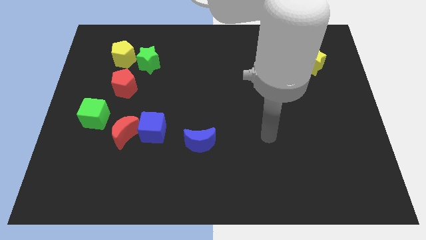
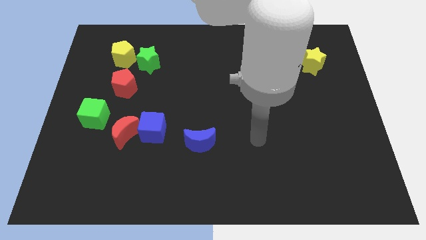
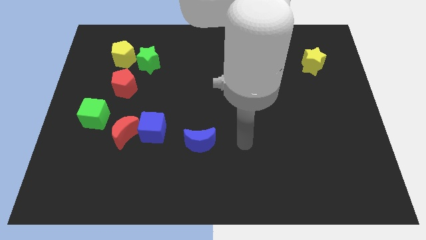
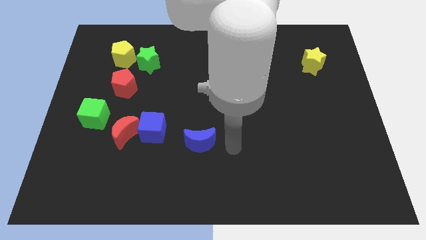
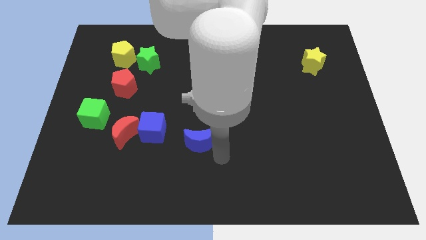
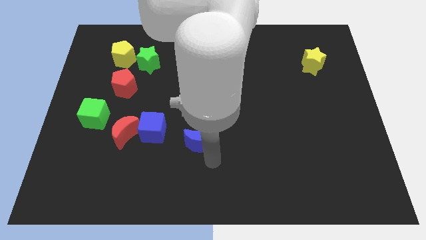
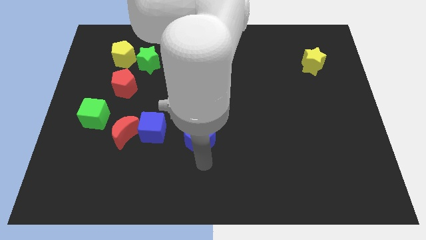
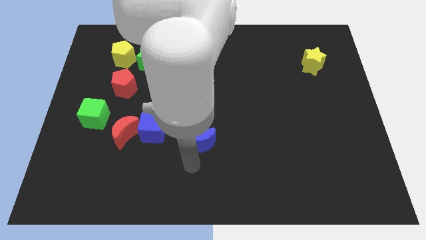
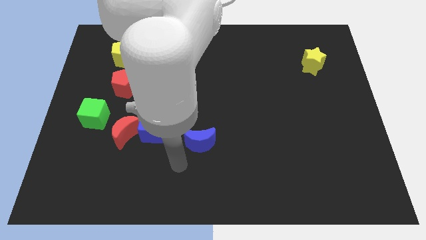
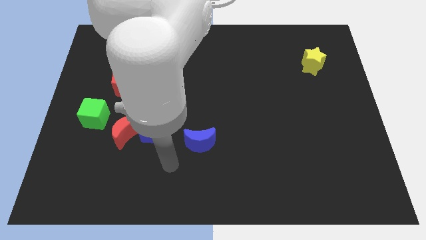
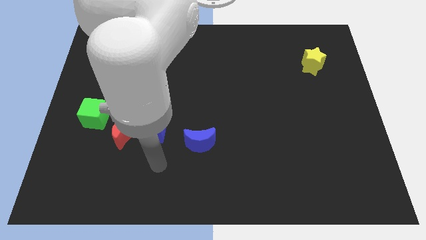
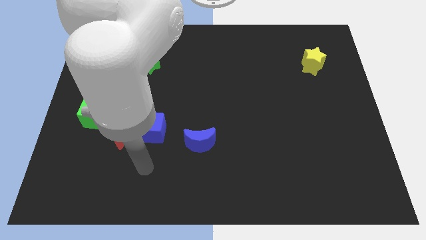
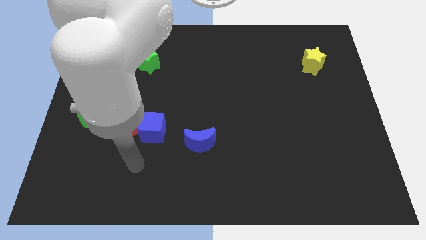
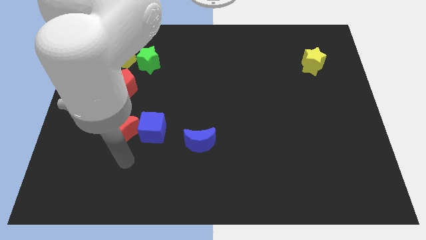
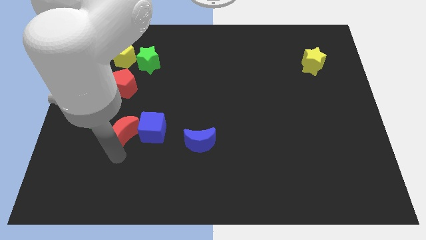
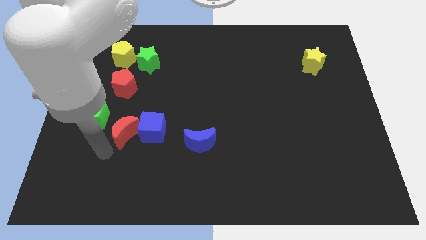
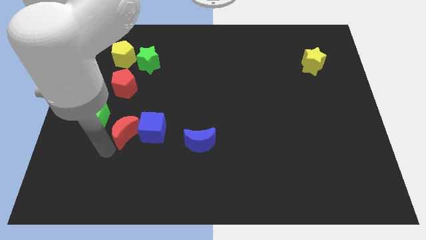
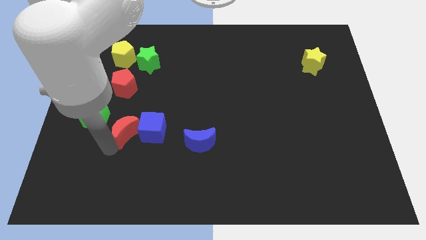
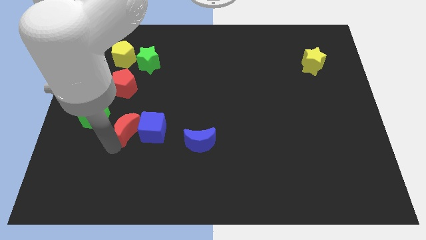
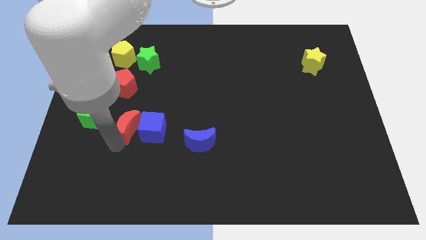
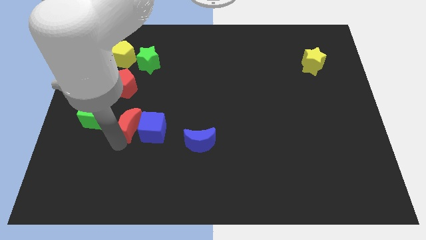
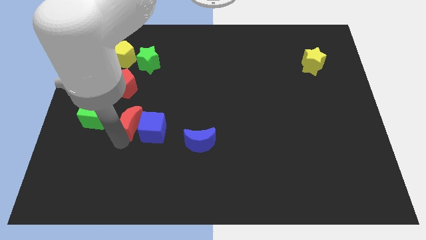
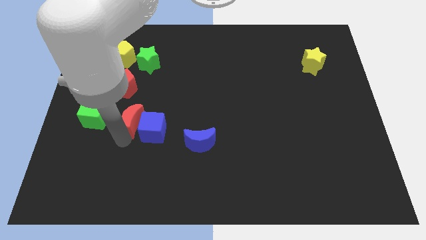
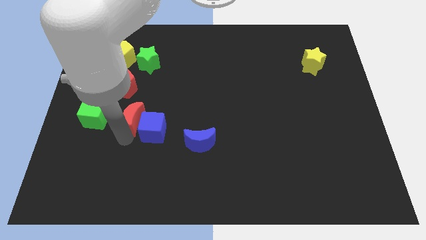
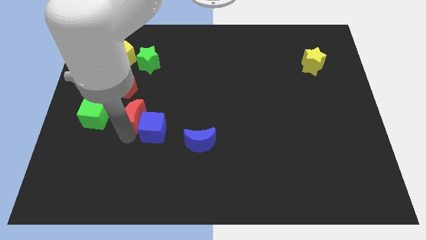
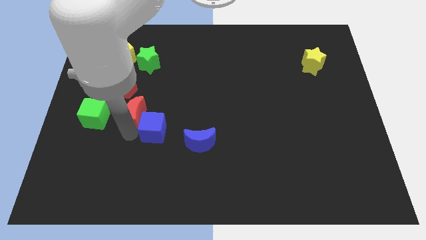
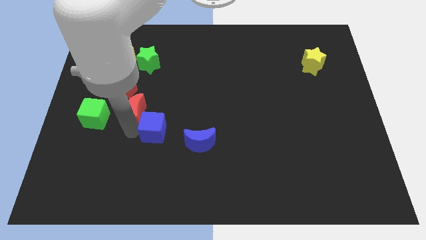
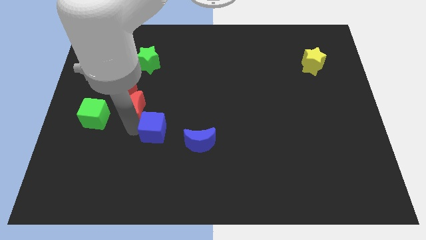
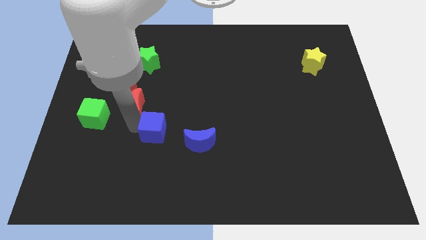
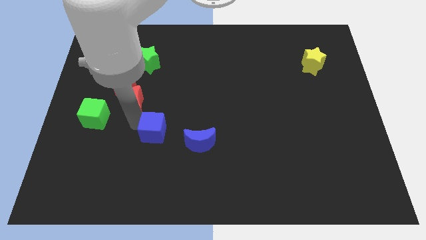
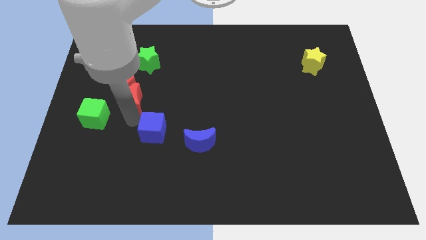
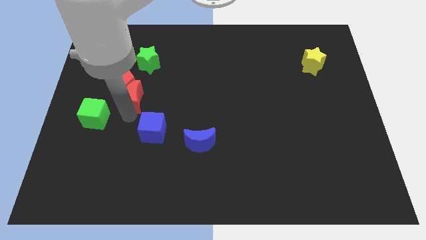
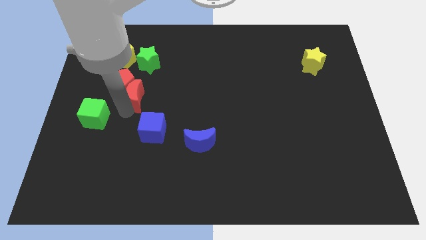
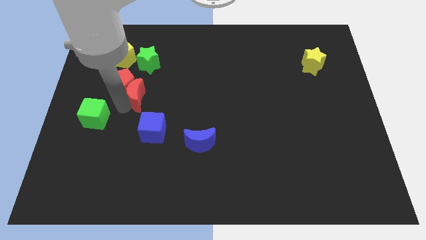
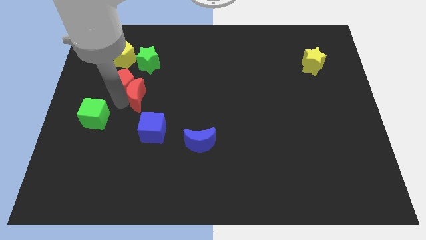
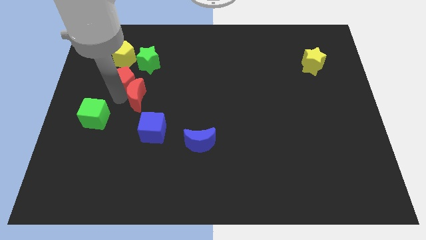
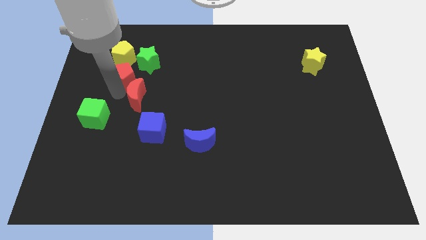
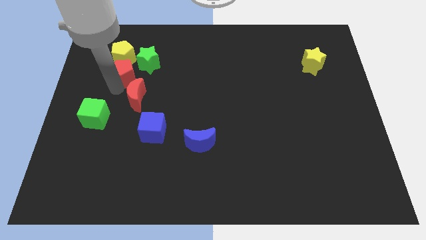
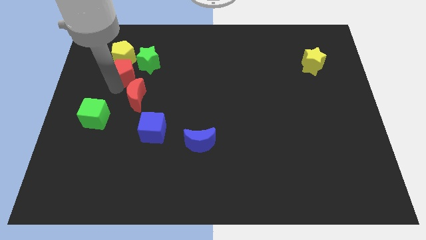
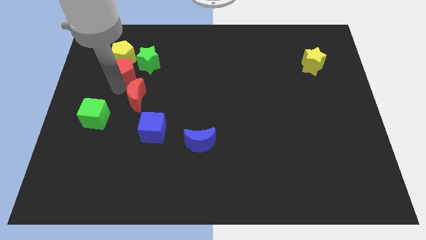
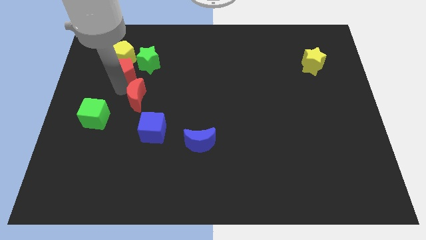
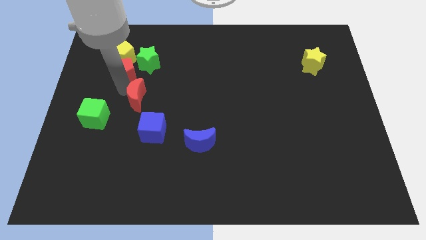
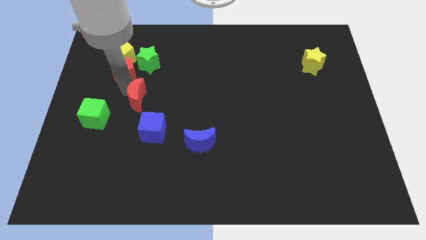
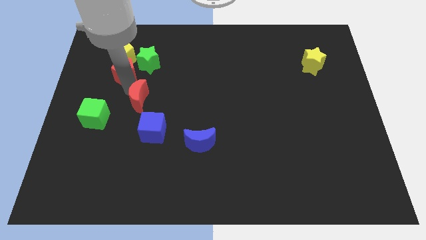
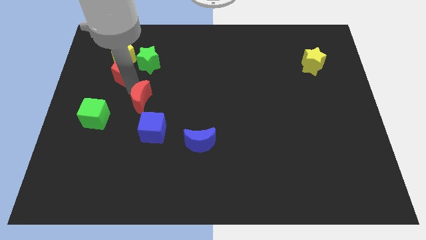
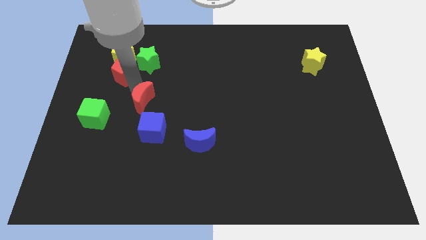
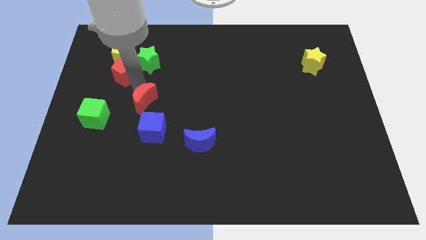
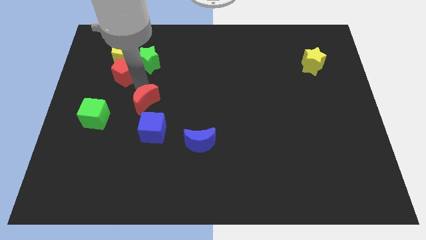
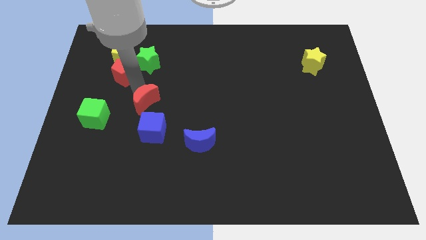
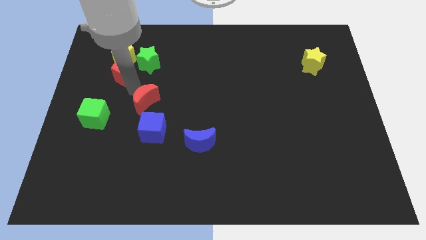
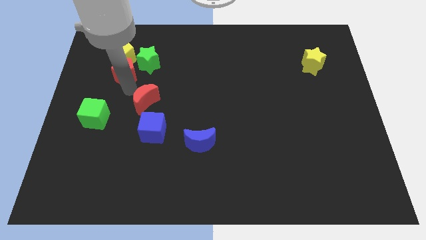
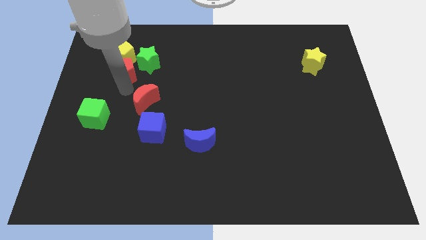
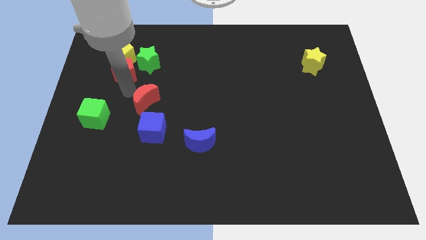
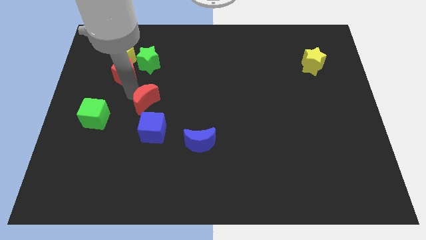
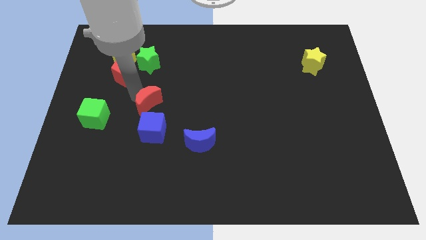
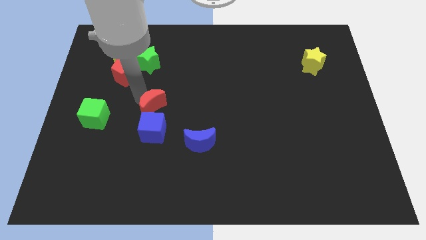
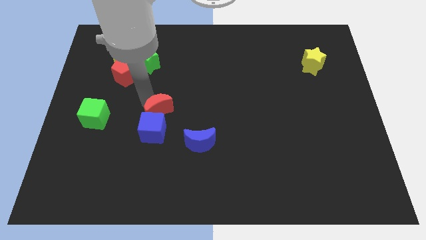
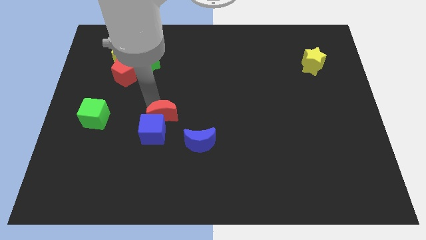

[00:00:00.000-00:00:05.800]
put the red moon diagonally up and to the left of the blue moon

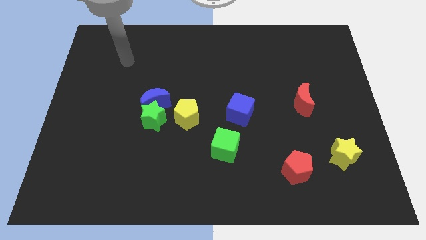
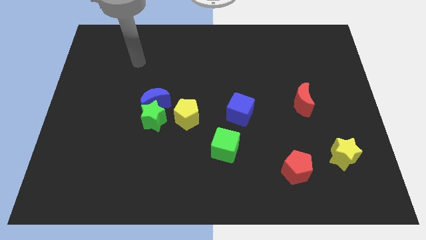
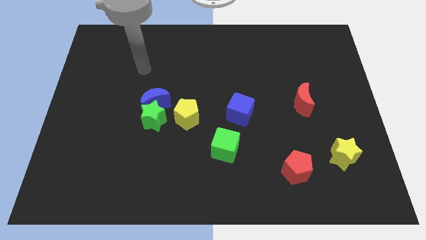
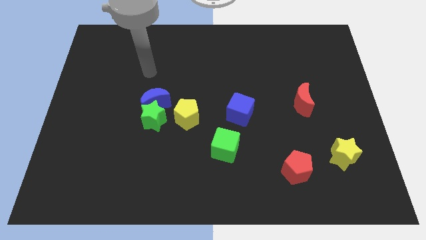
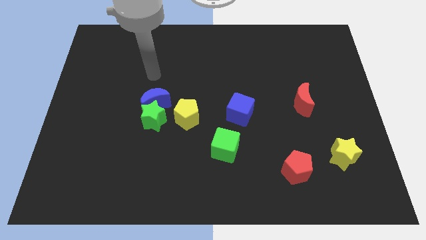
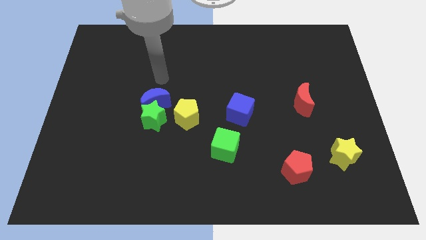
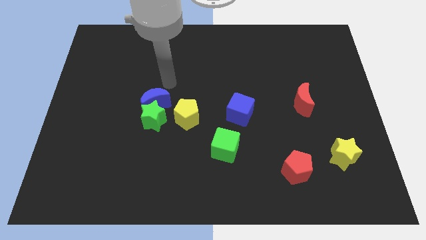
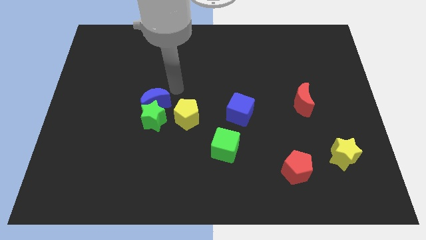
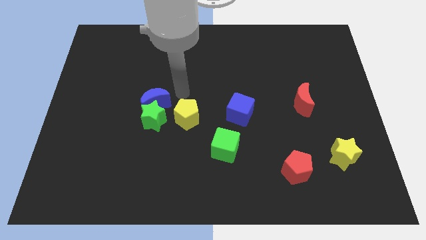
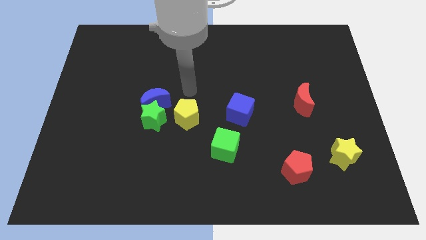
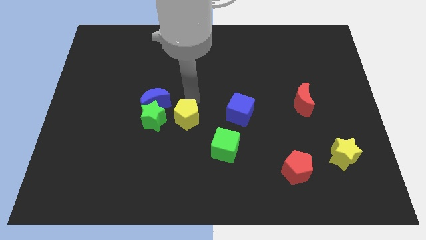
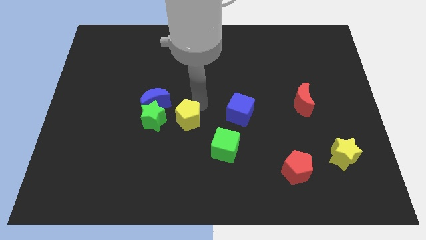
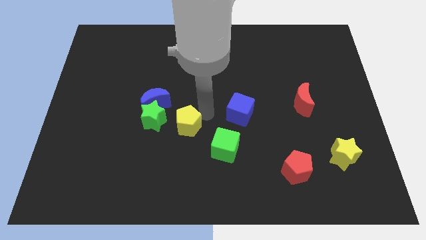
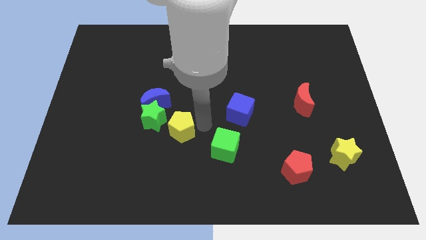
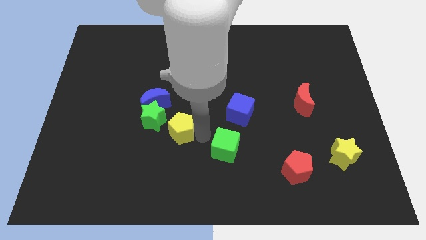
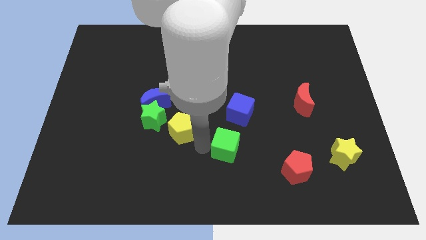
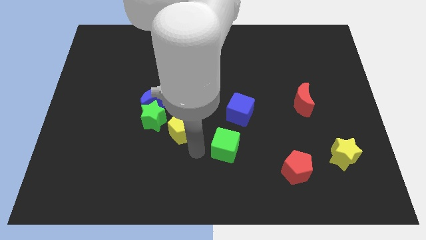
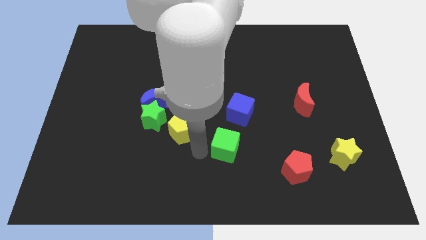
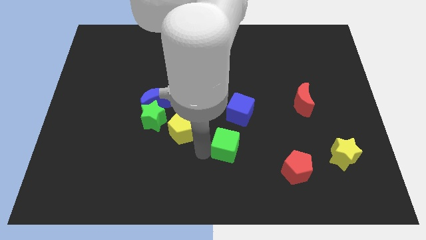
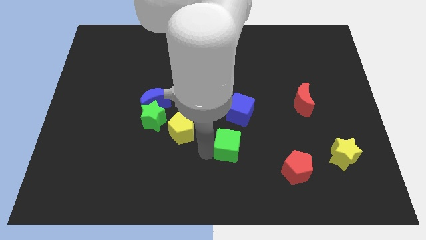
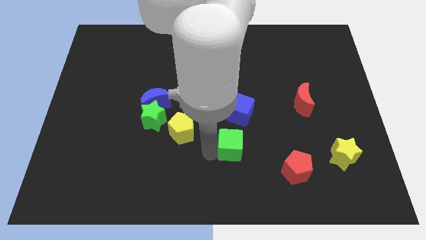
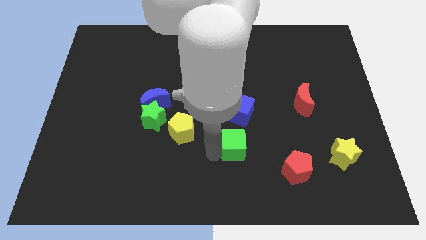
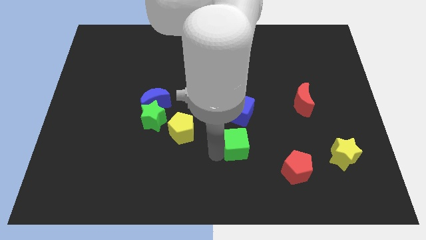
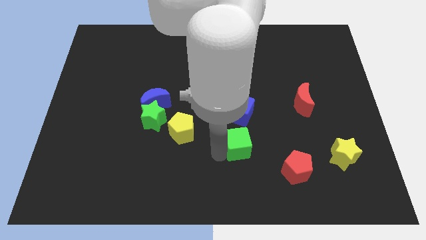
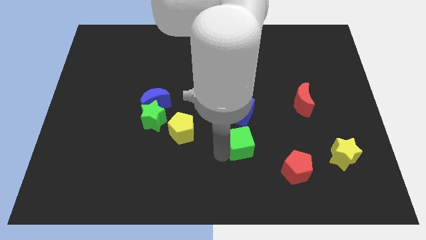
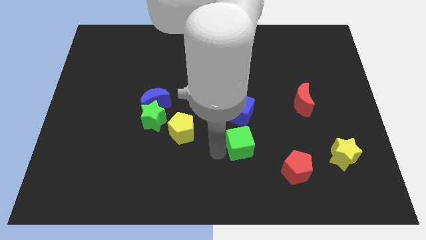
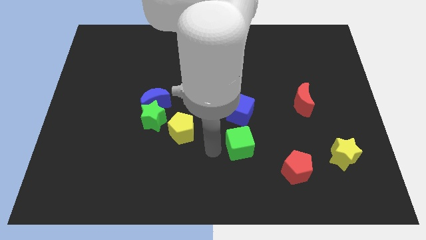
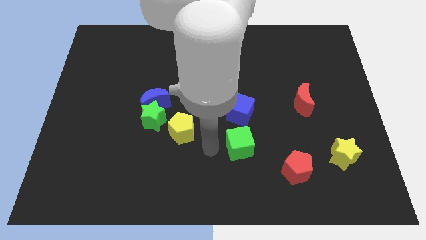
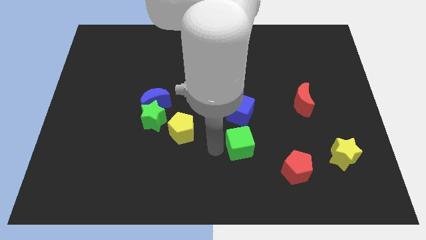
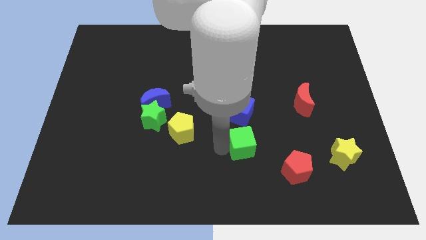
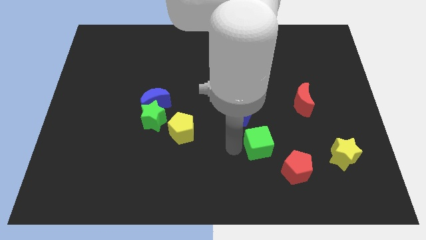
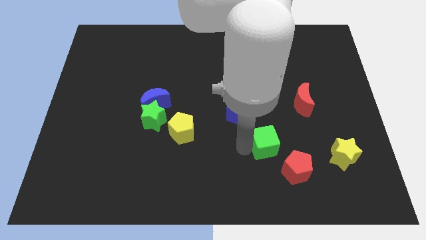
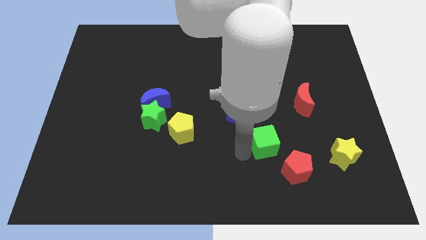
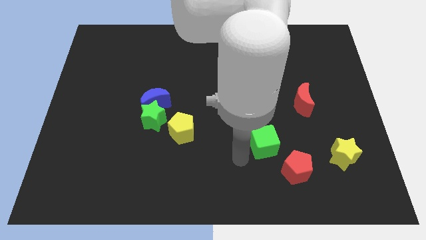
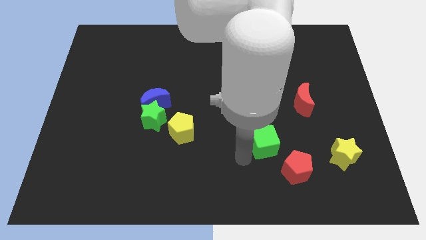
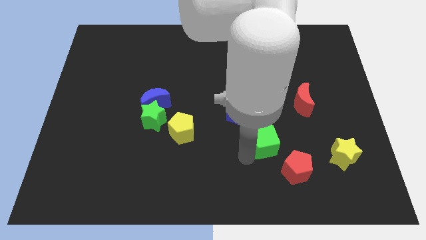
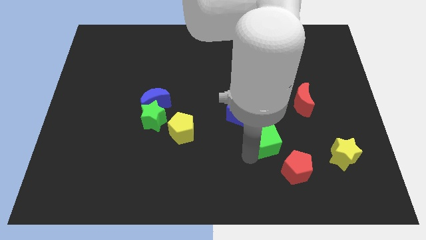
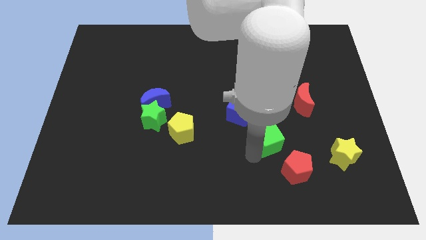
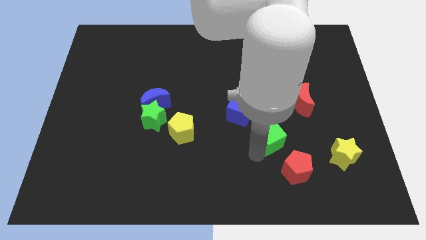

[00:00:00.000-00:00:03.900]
push the green cube to the top of the red pentagon
